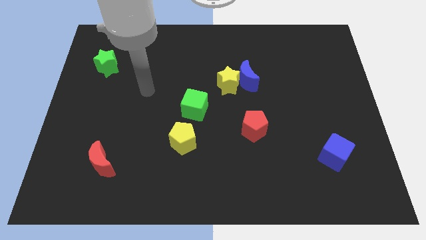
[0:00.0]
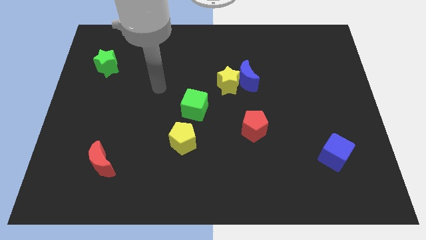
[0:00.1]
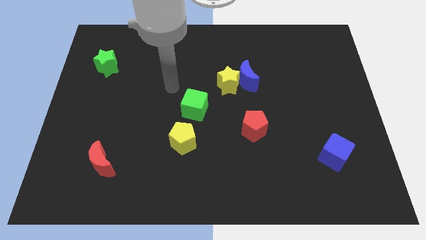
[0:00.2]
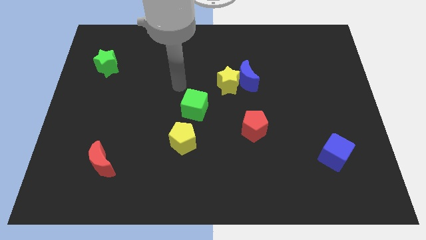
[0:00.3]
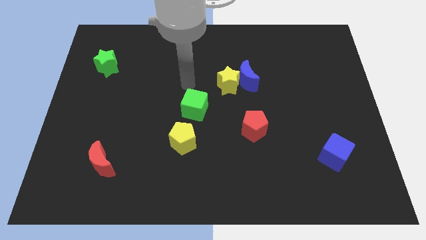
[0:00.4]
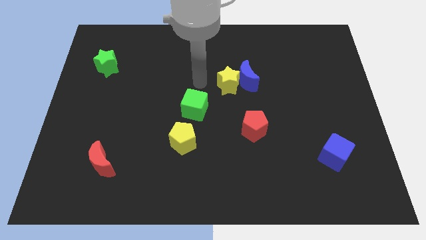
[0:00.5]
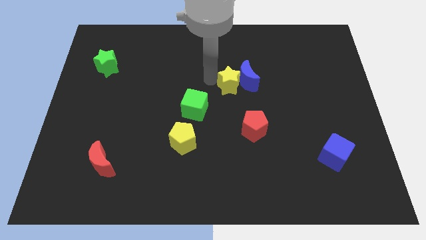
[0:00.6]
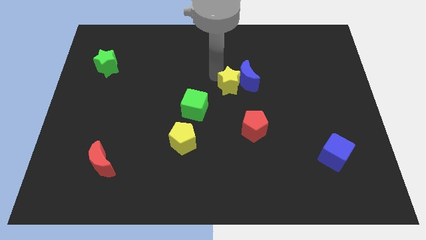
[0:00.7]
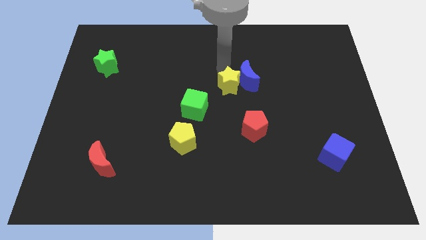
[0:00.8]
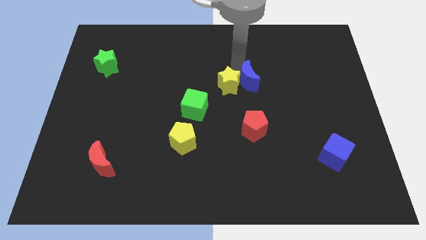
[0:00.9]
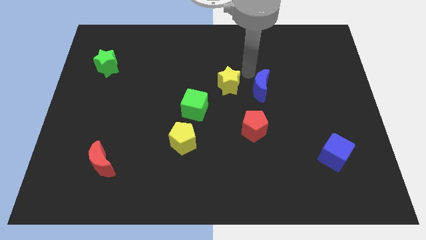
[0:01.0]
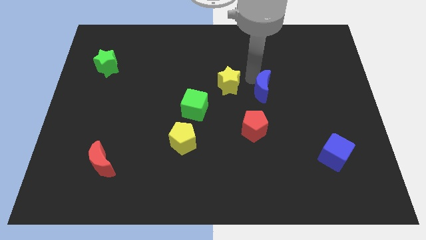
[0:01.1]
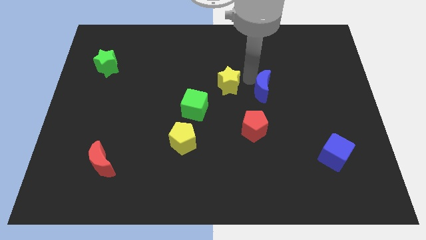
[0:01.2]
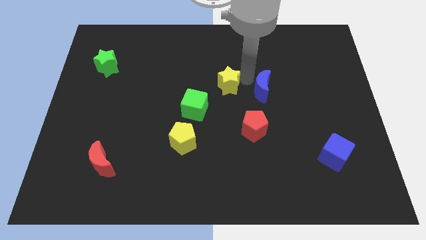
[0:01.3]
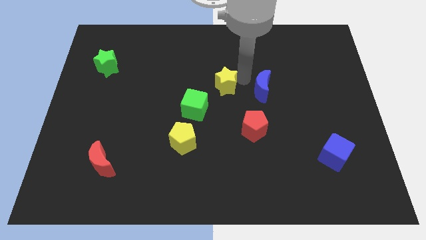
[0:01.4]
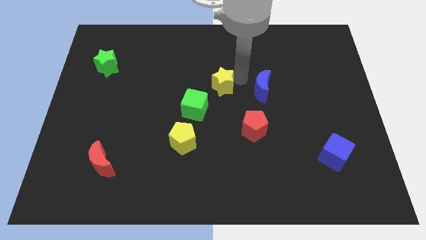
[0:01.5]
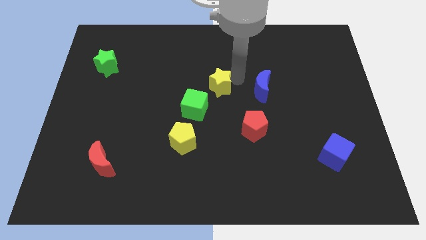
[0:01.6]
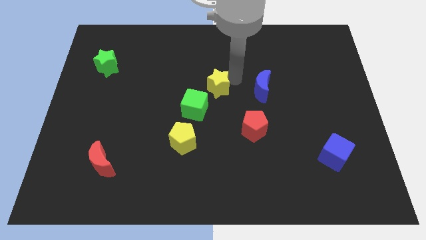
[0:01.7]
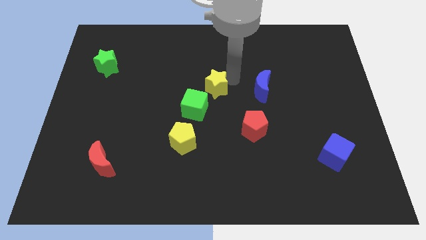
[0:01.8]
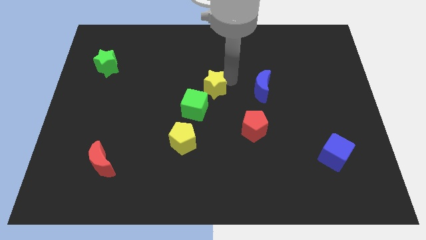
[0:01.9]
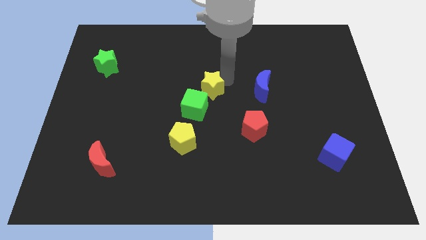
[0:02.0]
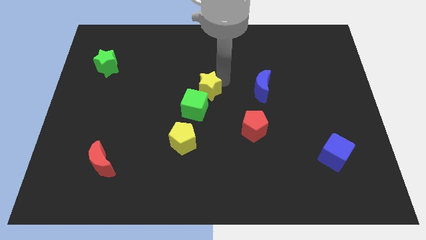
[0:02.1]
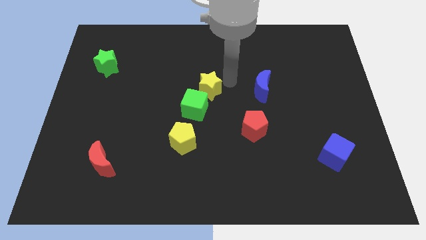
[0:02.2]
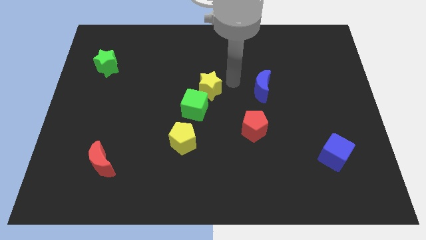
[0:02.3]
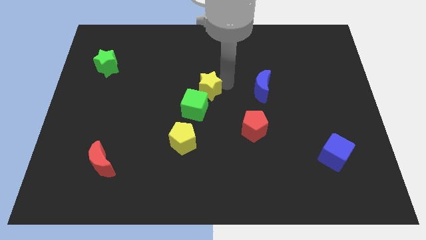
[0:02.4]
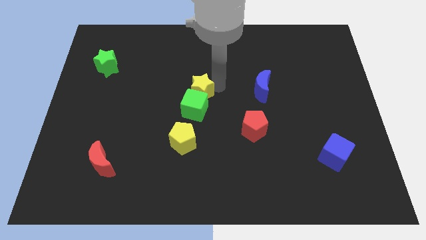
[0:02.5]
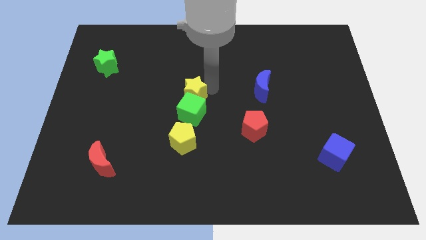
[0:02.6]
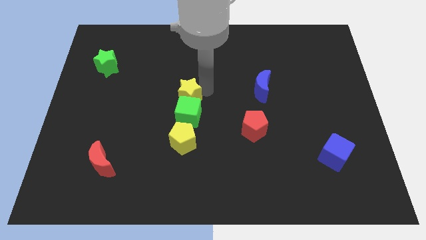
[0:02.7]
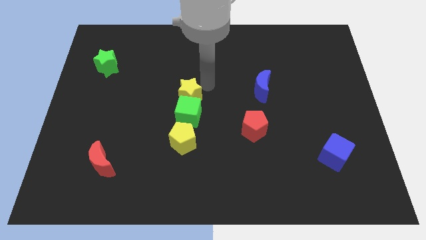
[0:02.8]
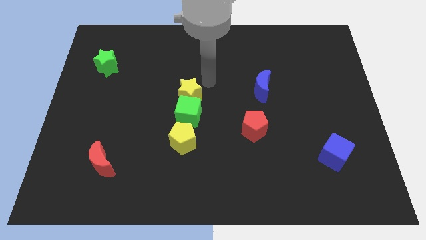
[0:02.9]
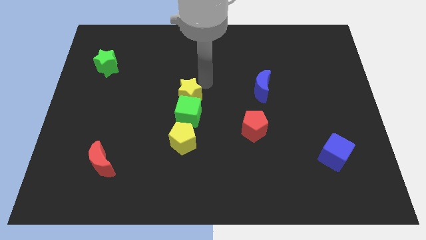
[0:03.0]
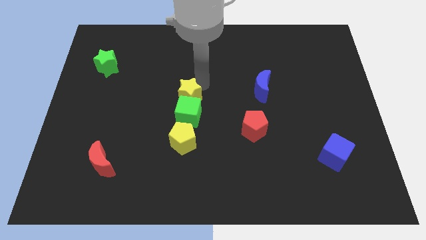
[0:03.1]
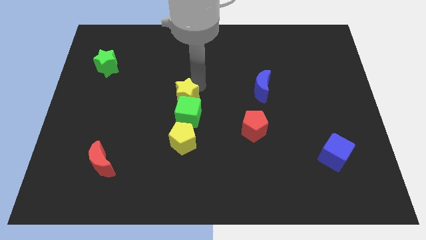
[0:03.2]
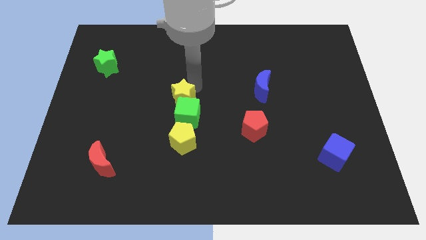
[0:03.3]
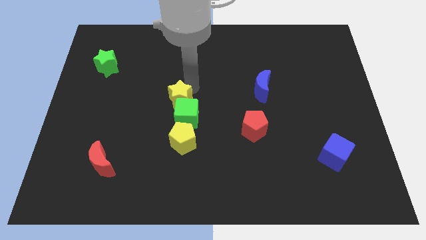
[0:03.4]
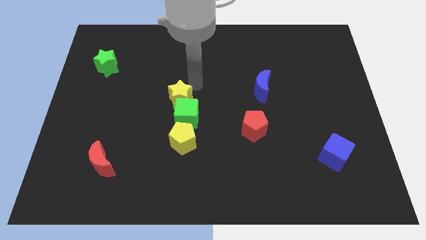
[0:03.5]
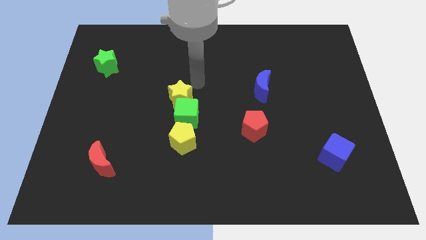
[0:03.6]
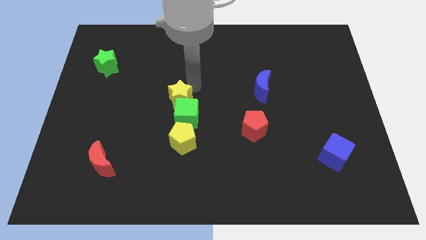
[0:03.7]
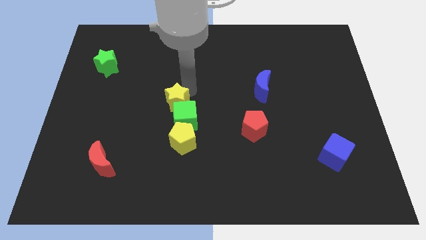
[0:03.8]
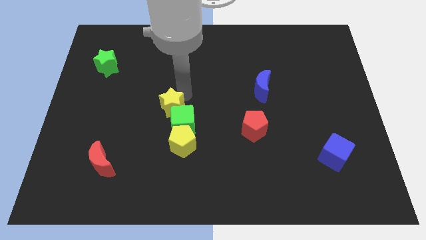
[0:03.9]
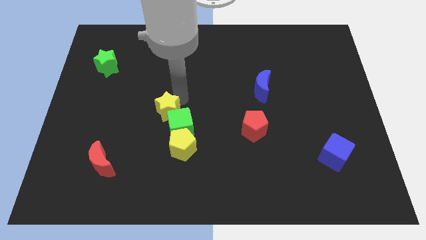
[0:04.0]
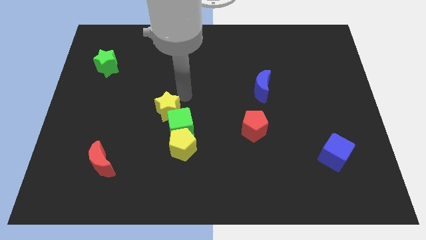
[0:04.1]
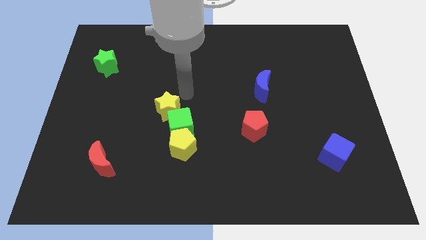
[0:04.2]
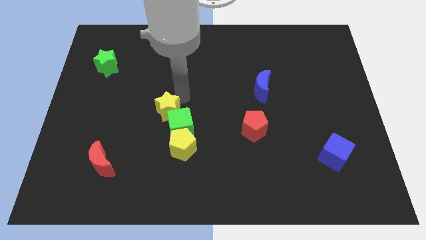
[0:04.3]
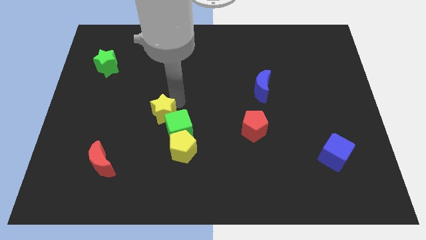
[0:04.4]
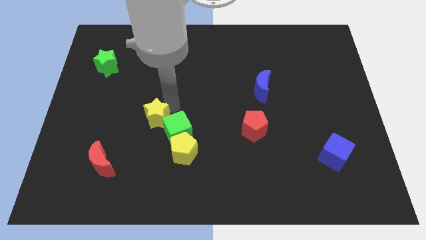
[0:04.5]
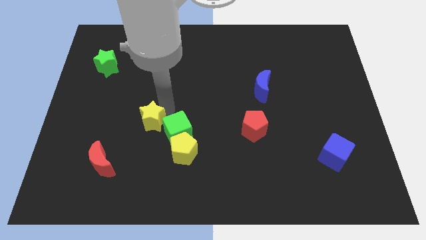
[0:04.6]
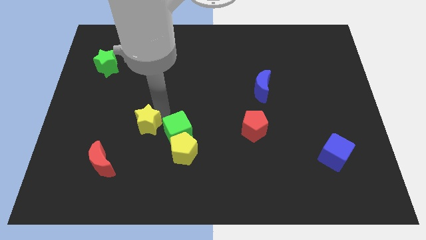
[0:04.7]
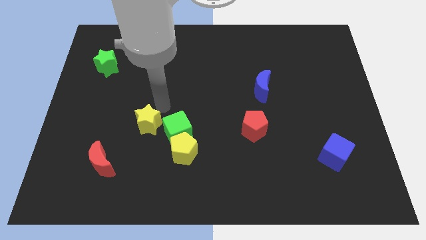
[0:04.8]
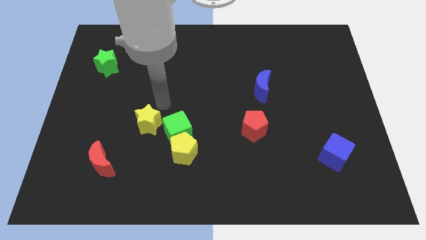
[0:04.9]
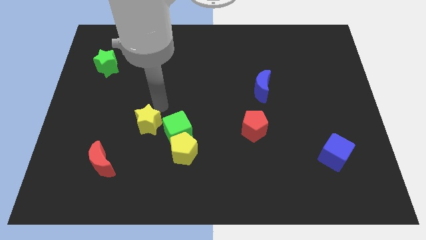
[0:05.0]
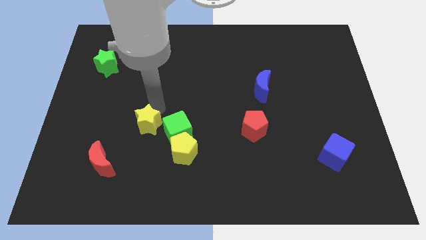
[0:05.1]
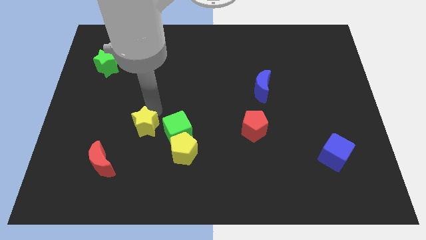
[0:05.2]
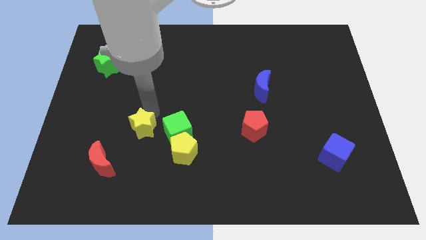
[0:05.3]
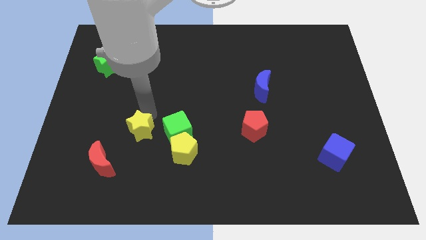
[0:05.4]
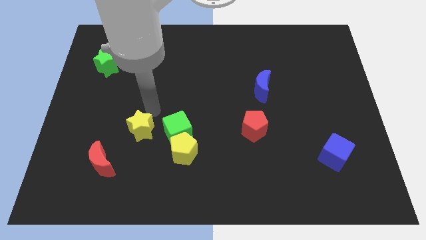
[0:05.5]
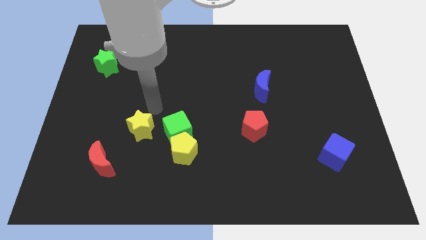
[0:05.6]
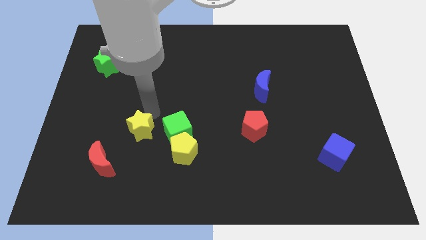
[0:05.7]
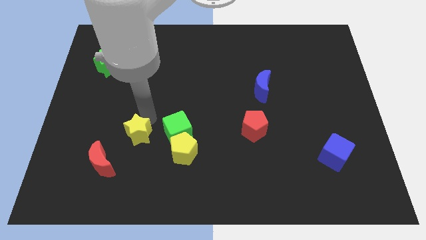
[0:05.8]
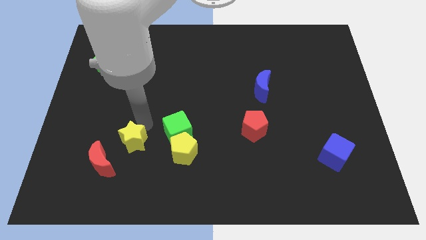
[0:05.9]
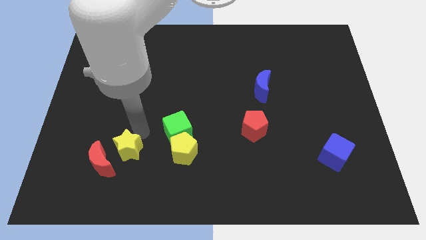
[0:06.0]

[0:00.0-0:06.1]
move the yellow star to the red moon

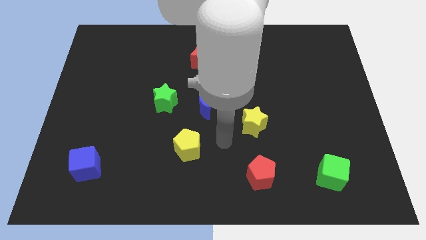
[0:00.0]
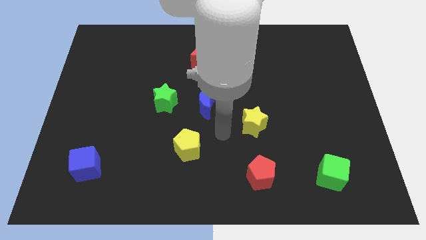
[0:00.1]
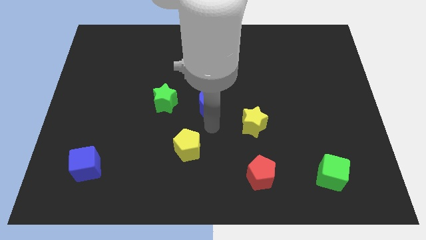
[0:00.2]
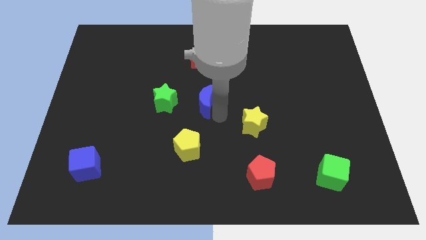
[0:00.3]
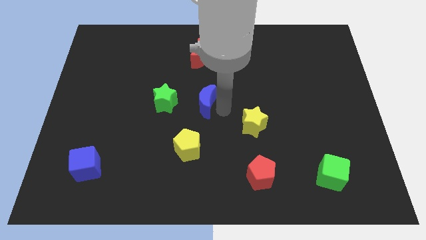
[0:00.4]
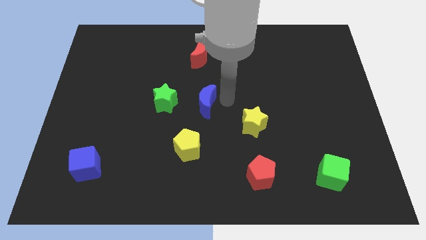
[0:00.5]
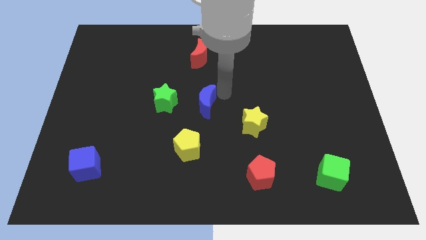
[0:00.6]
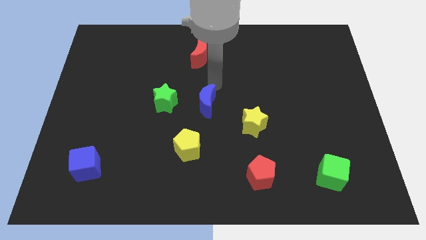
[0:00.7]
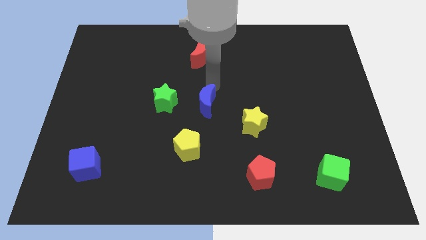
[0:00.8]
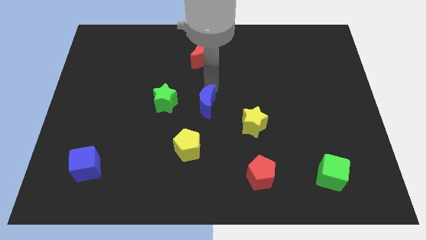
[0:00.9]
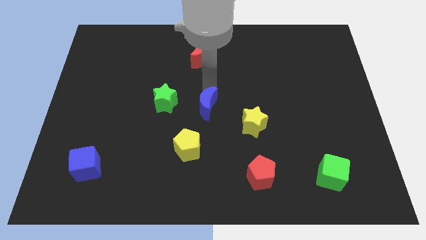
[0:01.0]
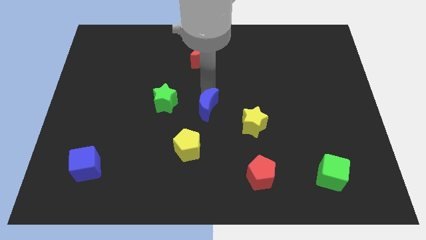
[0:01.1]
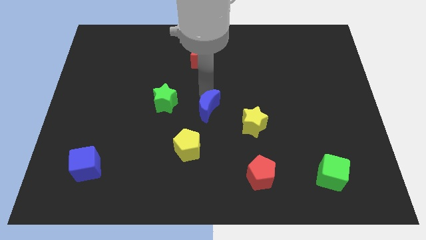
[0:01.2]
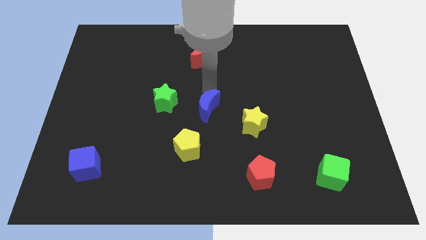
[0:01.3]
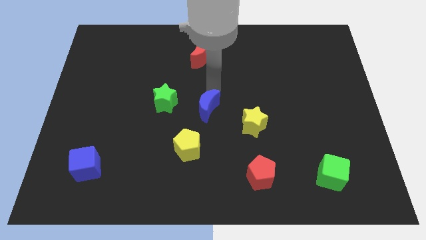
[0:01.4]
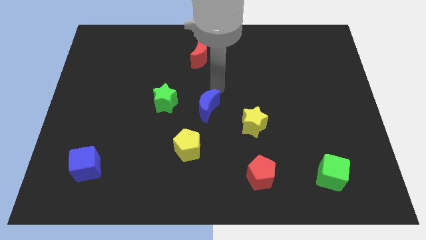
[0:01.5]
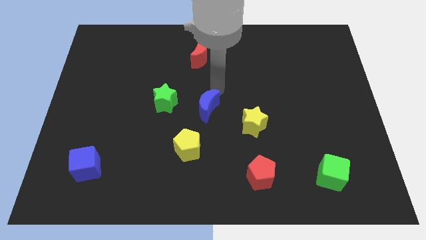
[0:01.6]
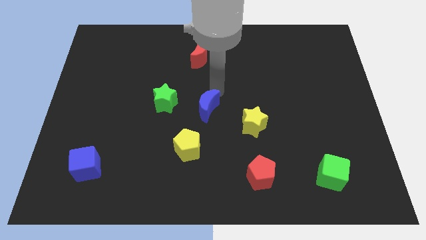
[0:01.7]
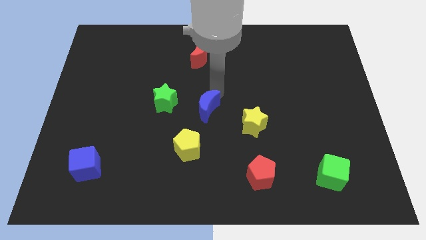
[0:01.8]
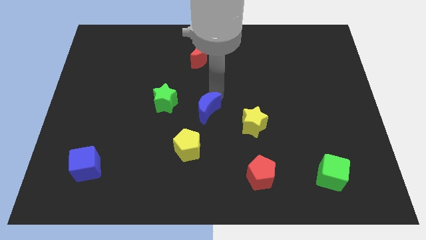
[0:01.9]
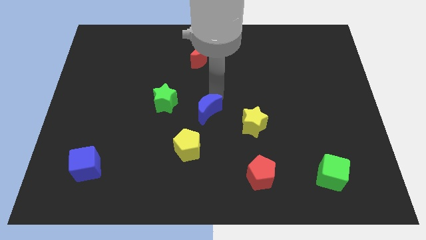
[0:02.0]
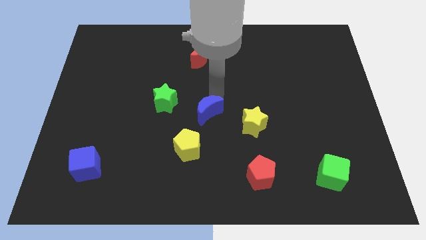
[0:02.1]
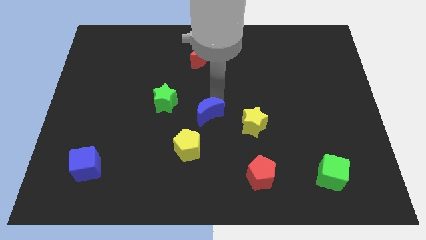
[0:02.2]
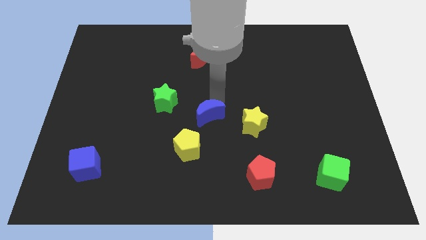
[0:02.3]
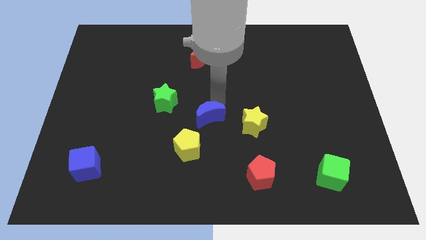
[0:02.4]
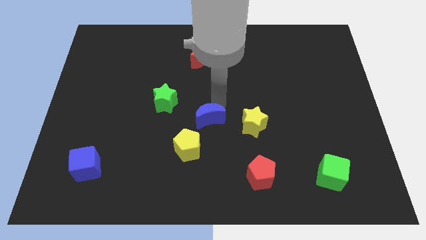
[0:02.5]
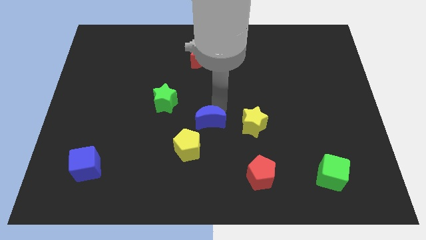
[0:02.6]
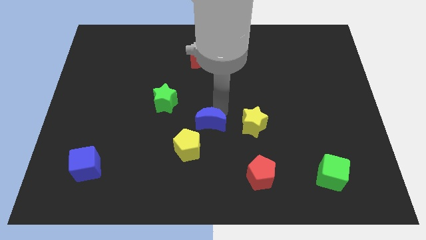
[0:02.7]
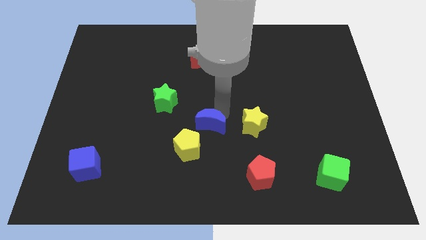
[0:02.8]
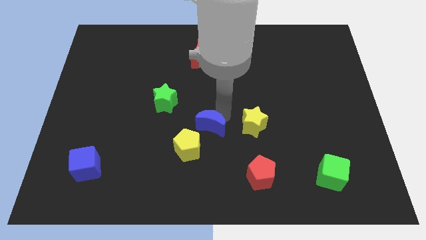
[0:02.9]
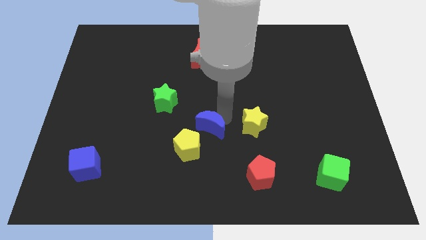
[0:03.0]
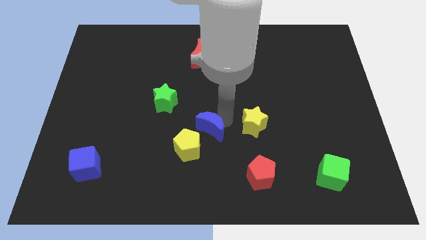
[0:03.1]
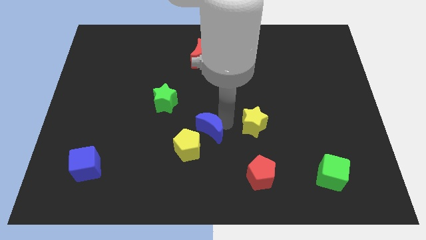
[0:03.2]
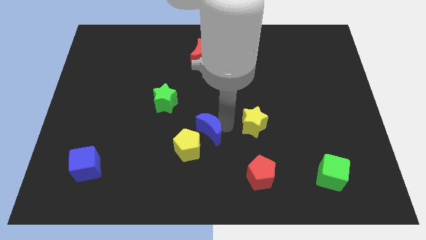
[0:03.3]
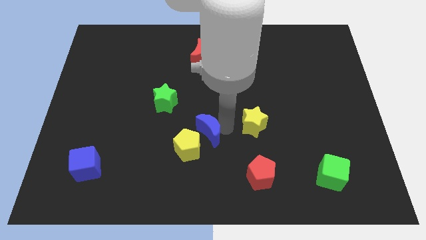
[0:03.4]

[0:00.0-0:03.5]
slide the blue moon close to the yellow pentagon
